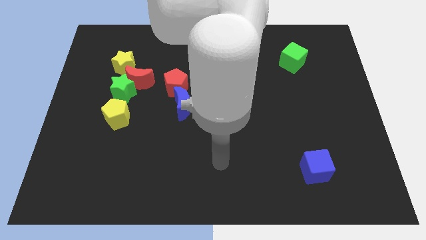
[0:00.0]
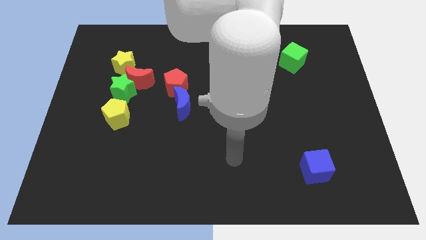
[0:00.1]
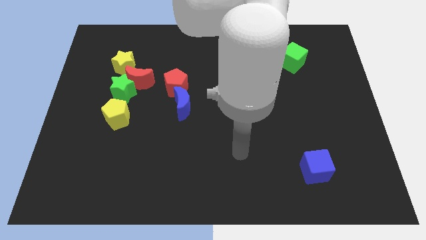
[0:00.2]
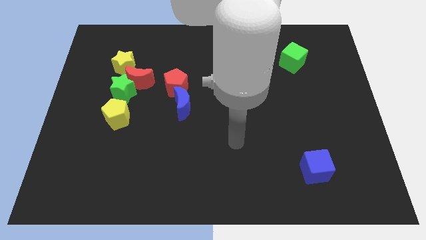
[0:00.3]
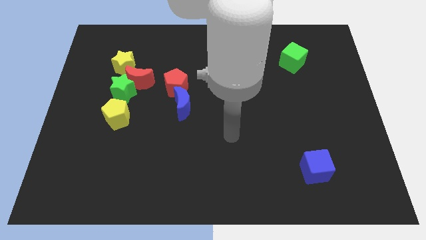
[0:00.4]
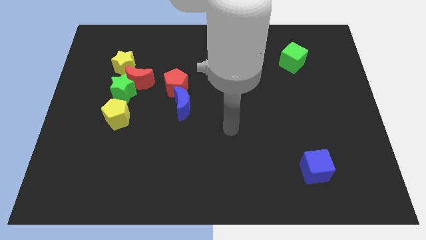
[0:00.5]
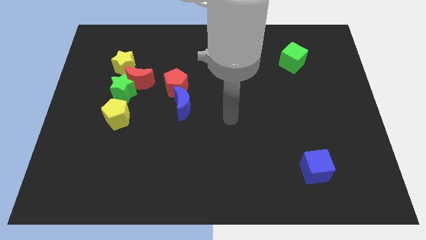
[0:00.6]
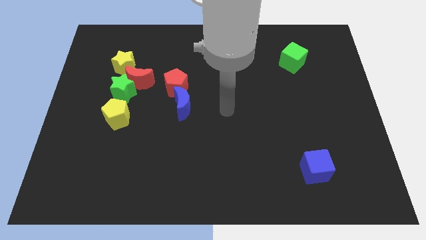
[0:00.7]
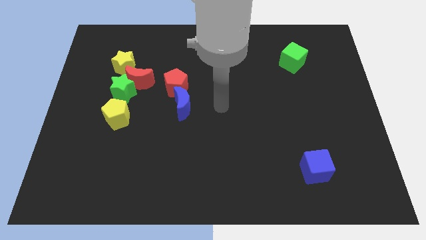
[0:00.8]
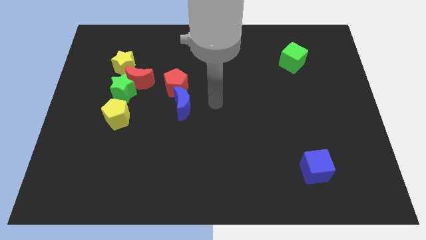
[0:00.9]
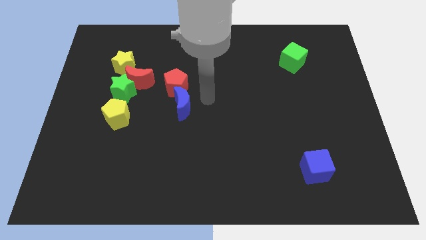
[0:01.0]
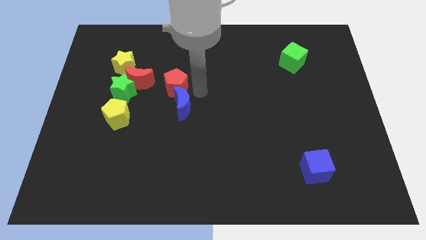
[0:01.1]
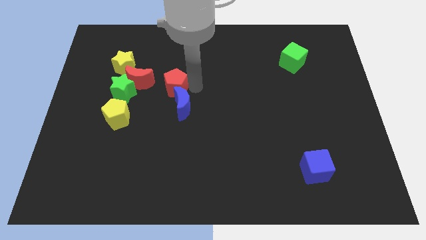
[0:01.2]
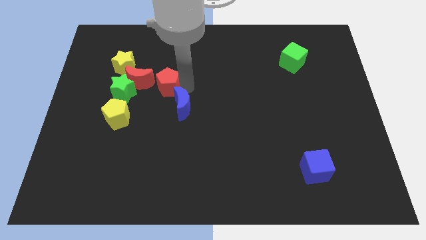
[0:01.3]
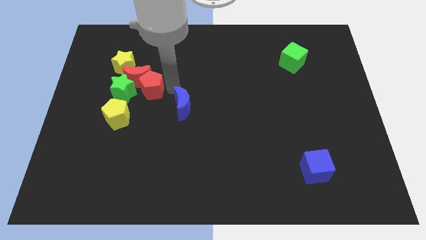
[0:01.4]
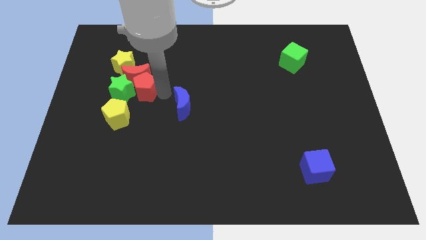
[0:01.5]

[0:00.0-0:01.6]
move the blue moon away from the red pentagon

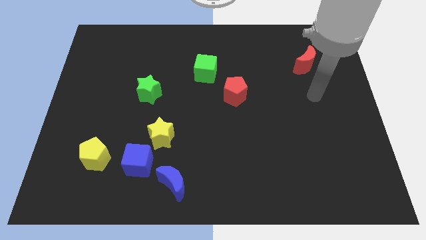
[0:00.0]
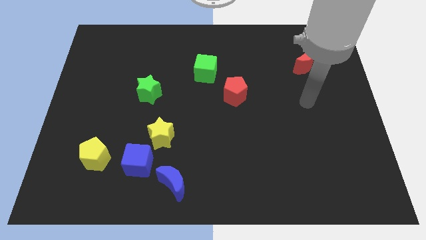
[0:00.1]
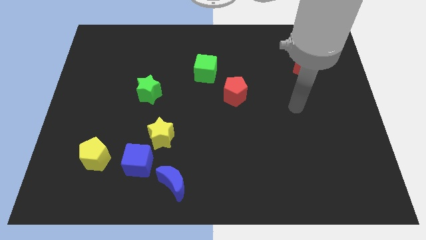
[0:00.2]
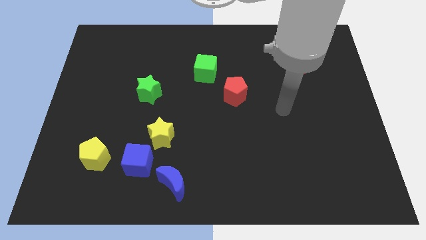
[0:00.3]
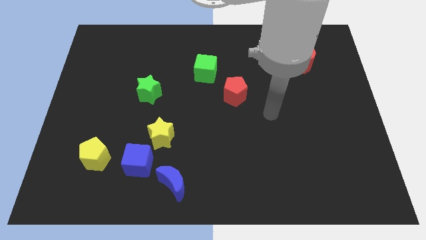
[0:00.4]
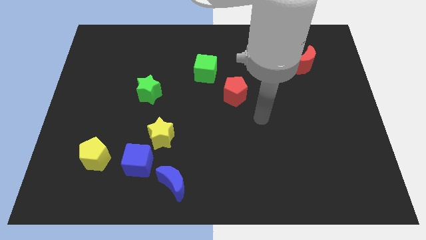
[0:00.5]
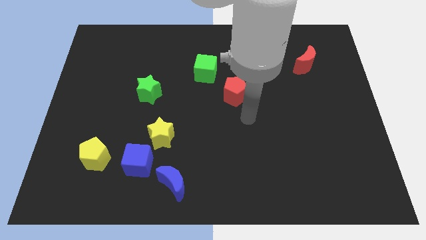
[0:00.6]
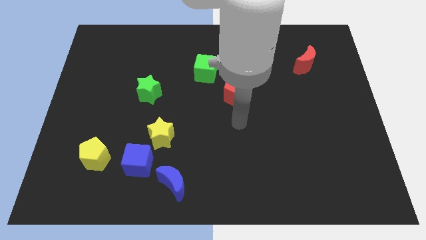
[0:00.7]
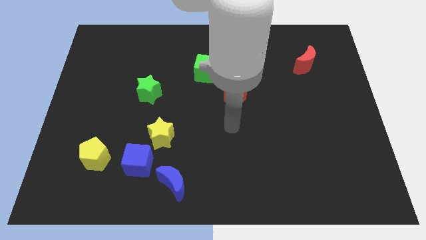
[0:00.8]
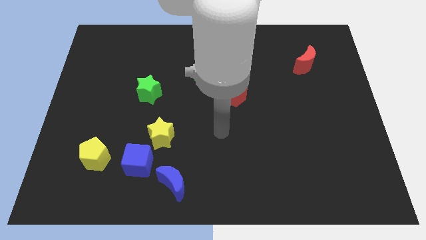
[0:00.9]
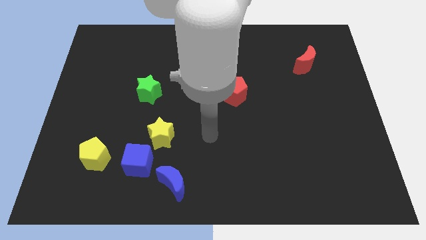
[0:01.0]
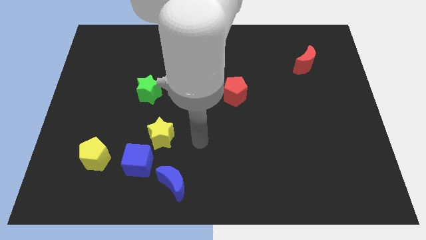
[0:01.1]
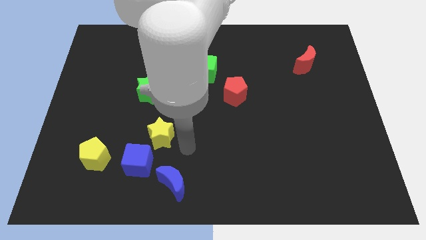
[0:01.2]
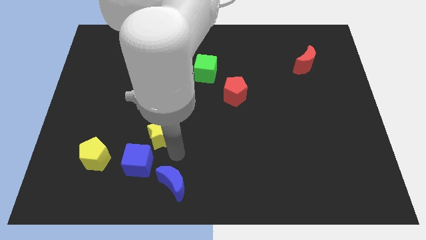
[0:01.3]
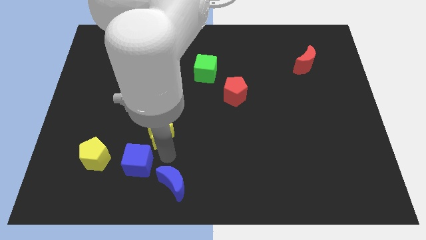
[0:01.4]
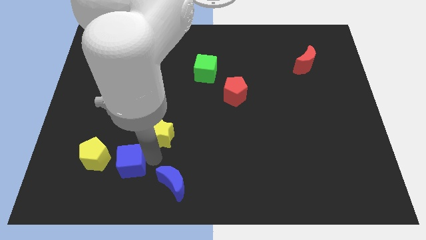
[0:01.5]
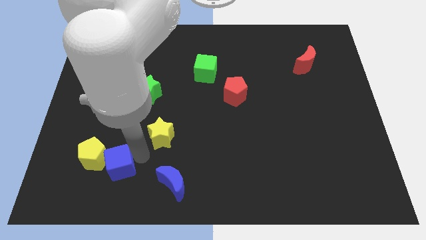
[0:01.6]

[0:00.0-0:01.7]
move the yellow star away from the blue cube

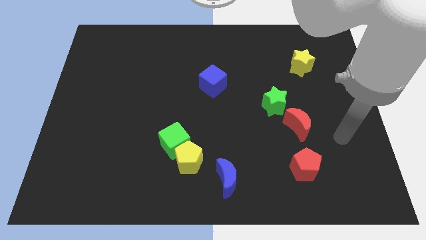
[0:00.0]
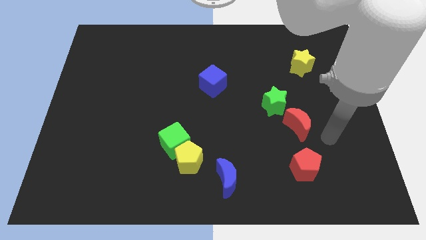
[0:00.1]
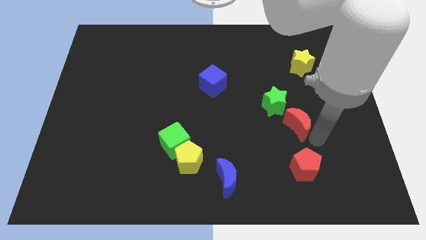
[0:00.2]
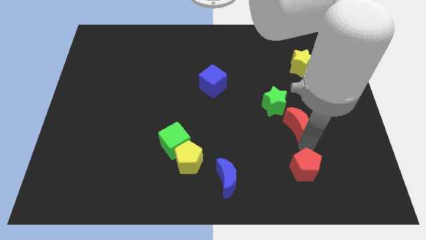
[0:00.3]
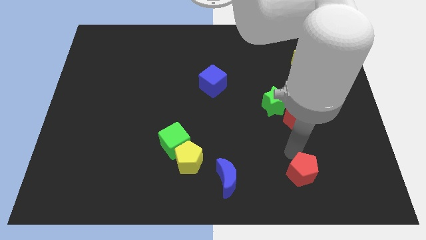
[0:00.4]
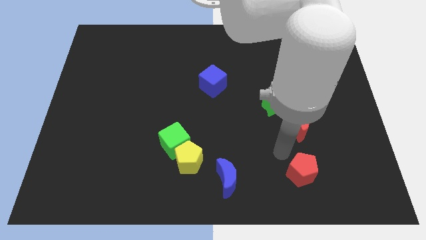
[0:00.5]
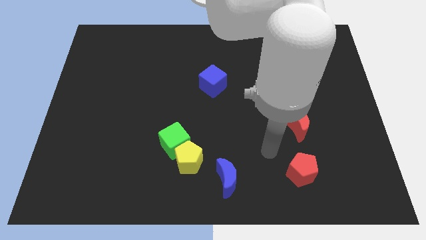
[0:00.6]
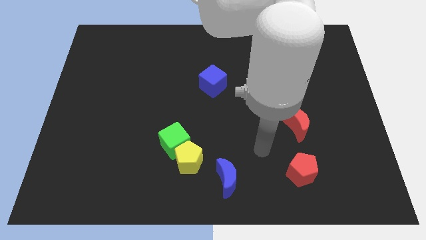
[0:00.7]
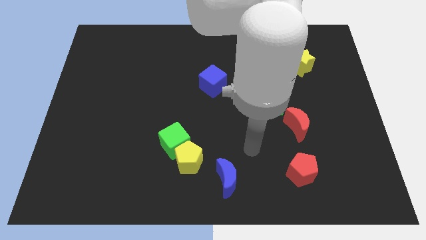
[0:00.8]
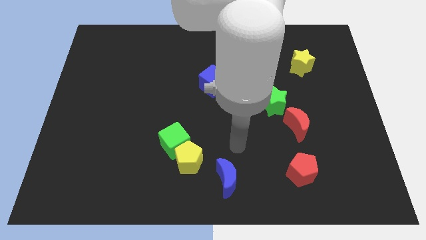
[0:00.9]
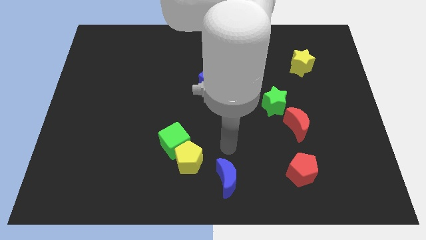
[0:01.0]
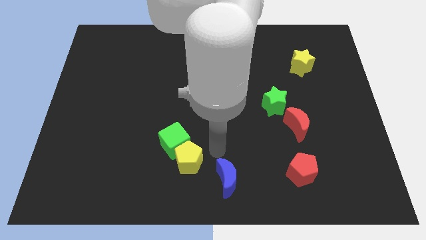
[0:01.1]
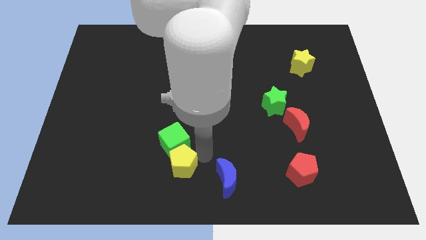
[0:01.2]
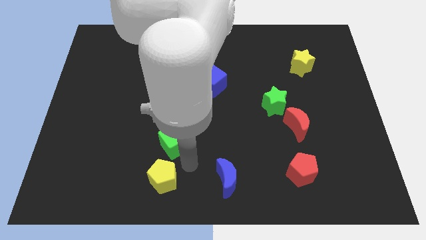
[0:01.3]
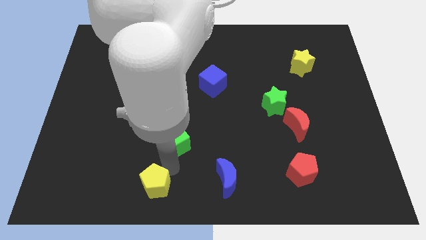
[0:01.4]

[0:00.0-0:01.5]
pull the green cube apart from the yellow pentagon

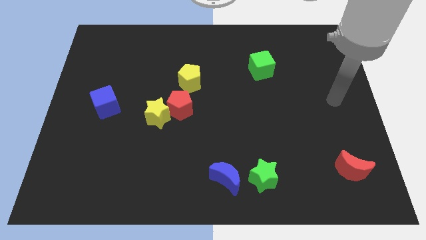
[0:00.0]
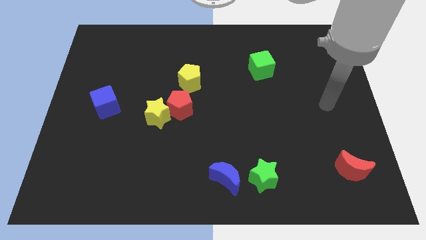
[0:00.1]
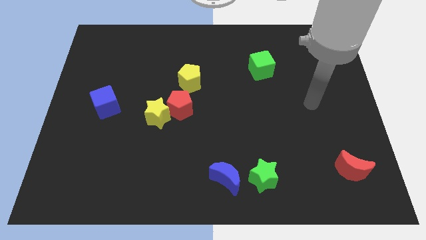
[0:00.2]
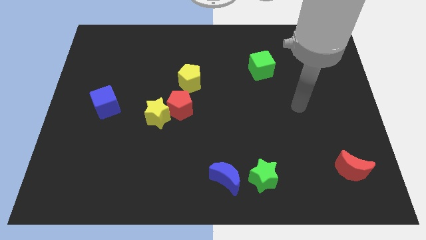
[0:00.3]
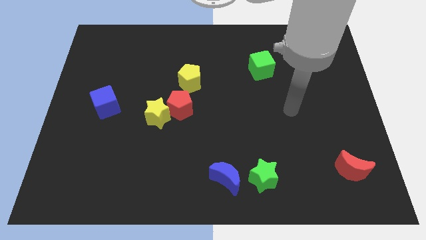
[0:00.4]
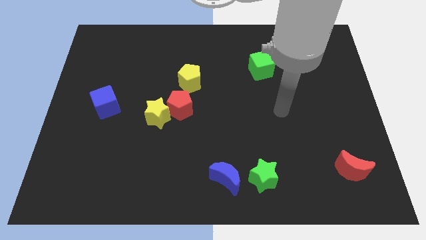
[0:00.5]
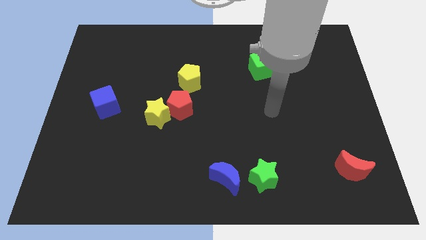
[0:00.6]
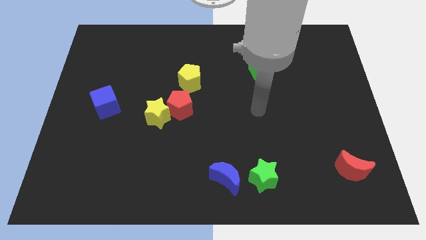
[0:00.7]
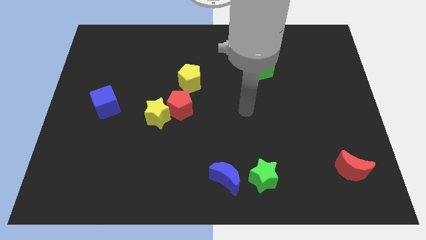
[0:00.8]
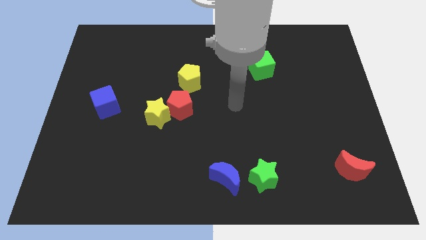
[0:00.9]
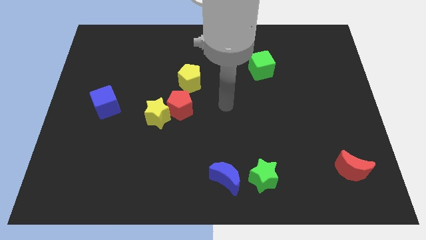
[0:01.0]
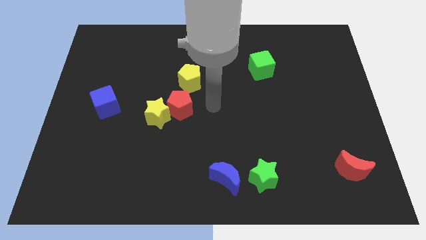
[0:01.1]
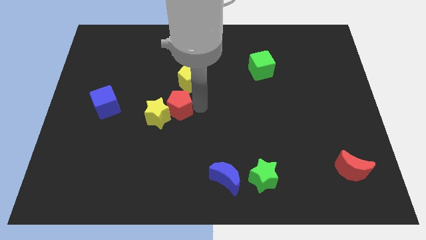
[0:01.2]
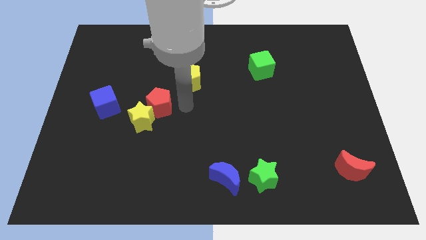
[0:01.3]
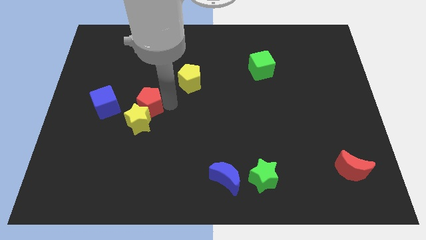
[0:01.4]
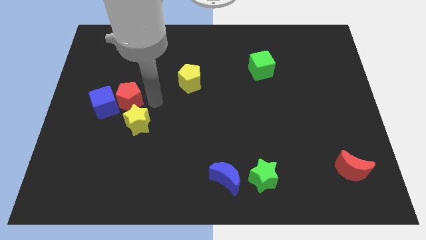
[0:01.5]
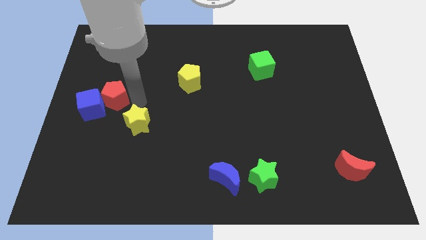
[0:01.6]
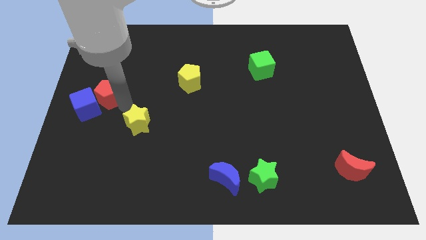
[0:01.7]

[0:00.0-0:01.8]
separate the yellow star from the red pentagon

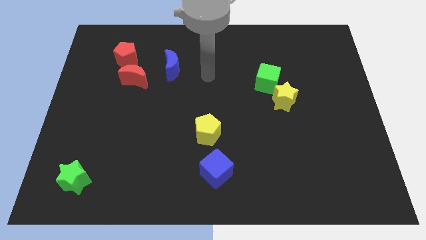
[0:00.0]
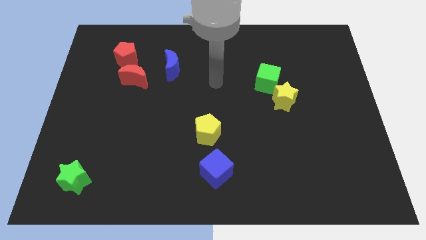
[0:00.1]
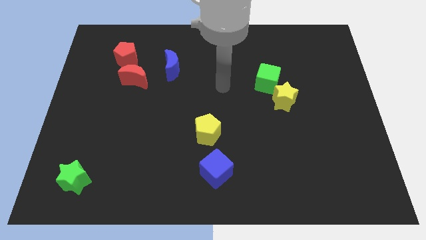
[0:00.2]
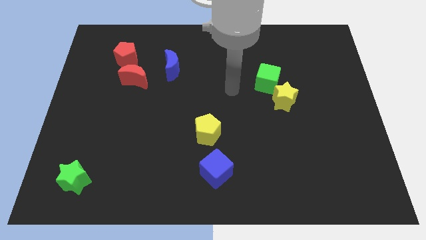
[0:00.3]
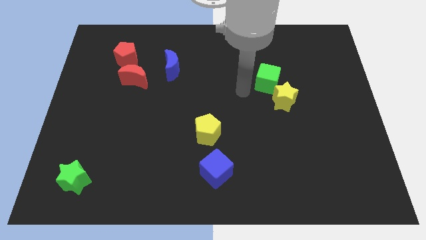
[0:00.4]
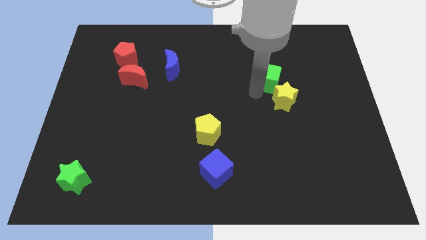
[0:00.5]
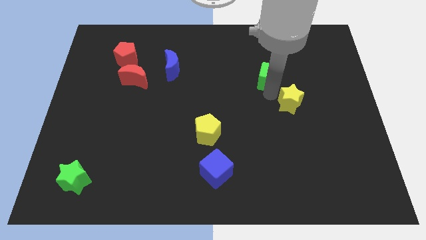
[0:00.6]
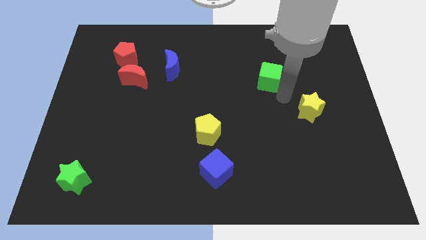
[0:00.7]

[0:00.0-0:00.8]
pull the green cube apart from the yellow star

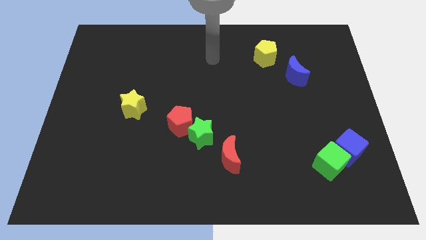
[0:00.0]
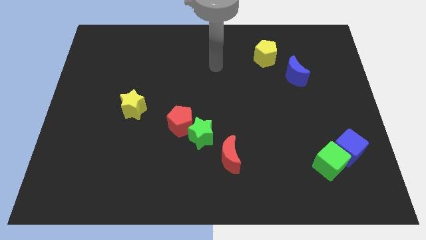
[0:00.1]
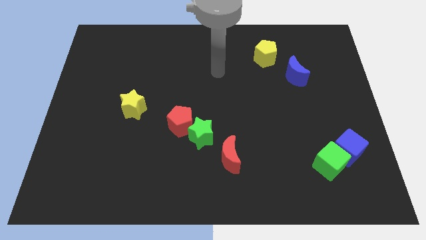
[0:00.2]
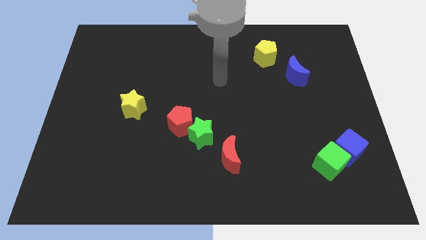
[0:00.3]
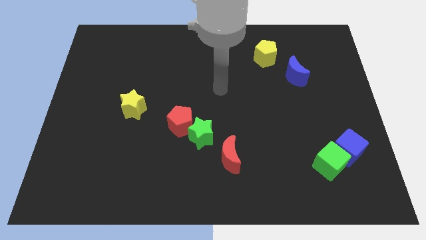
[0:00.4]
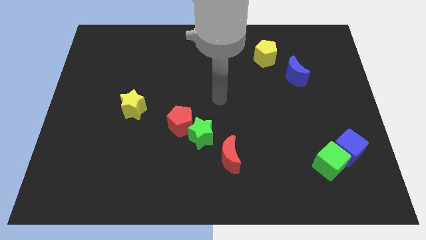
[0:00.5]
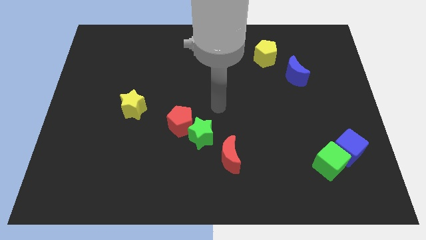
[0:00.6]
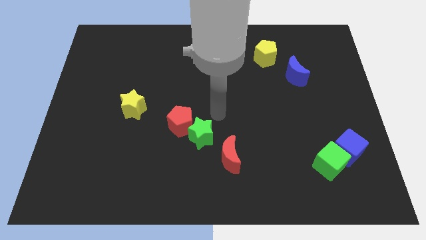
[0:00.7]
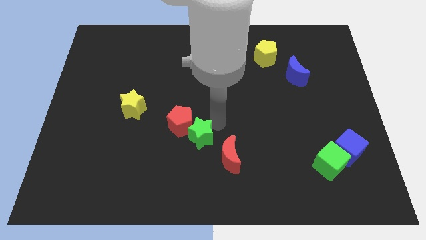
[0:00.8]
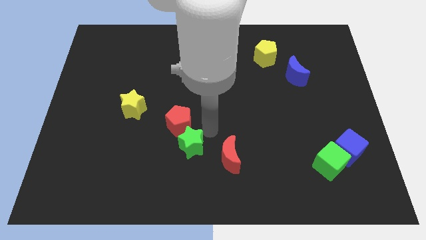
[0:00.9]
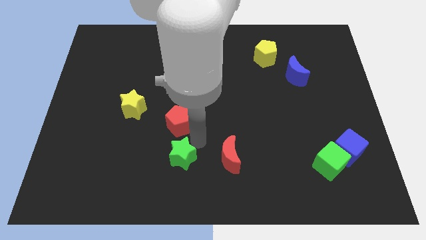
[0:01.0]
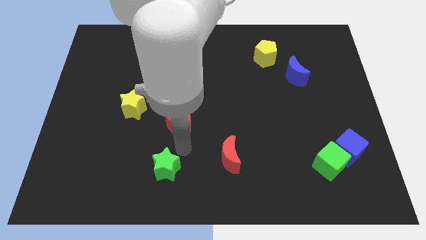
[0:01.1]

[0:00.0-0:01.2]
pull the red pentagon apart from the green star

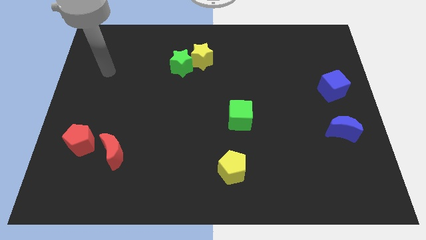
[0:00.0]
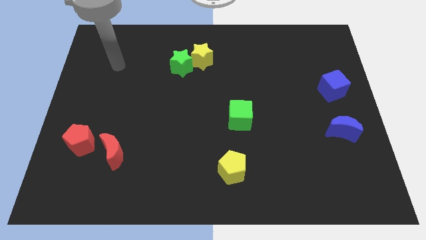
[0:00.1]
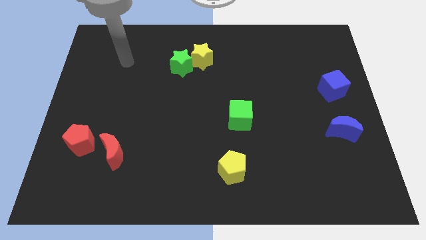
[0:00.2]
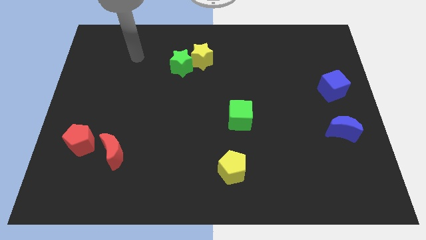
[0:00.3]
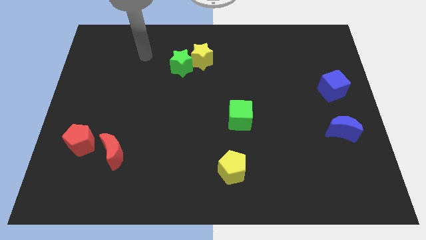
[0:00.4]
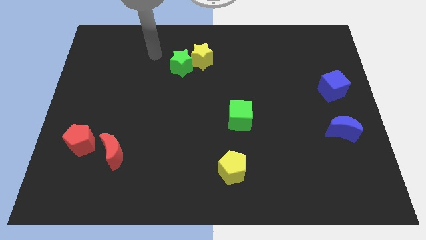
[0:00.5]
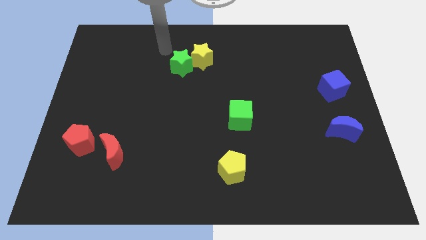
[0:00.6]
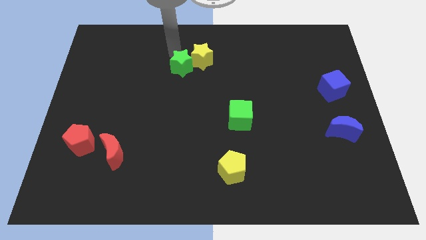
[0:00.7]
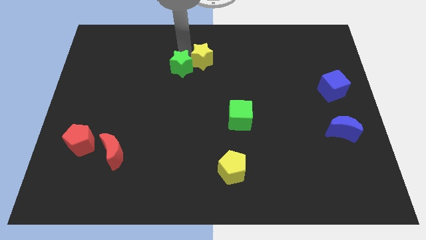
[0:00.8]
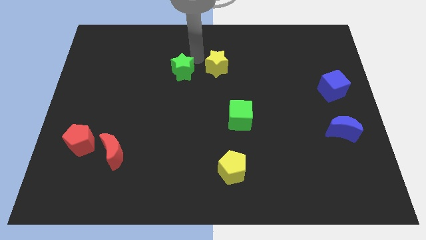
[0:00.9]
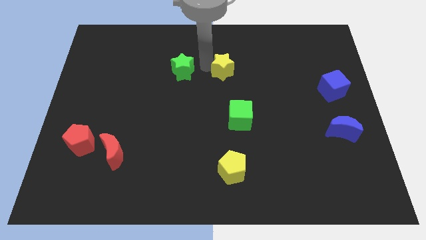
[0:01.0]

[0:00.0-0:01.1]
pull the green star apart from the yellow star
